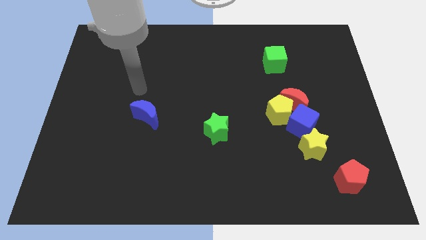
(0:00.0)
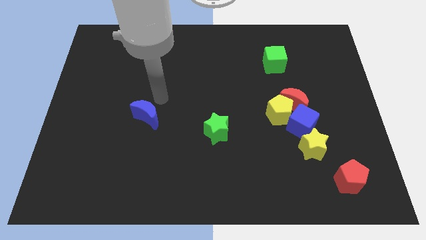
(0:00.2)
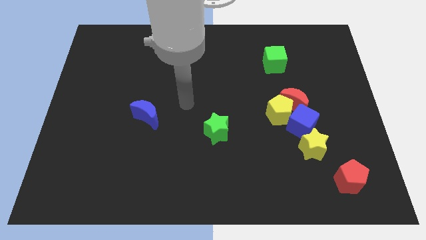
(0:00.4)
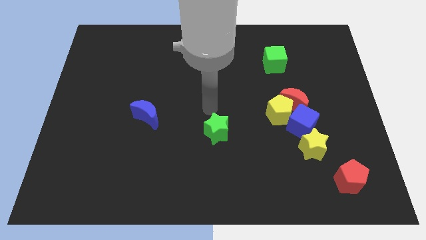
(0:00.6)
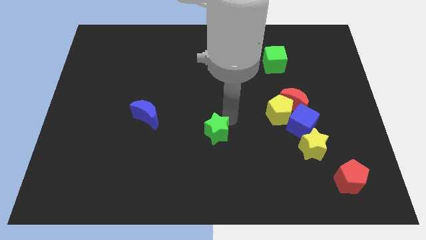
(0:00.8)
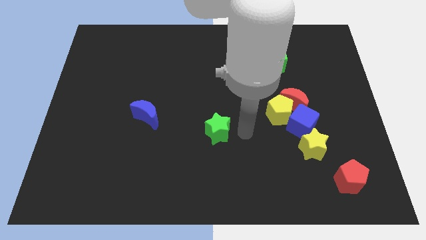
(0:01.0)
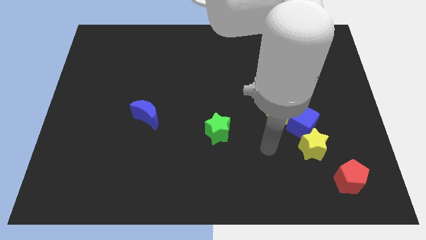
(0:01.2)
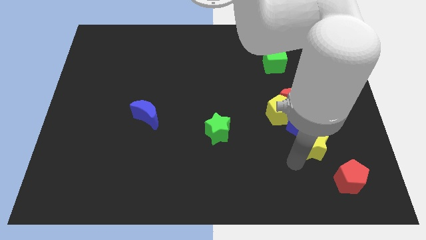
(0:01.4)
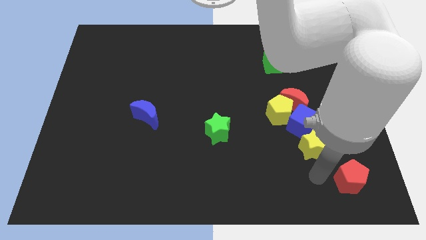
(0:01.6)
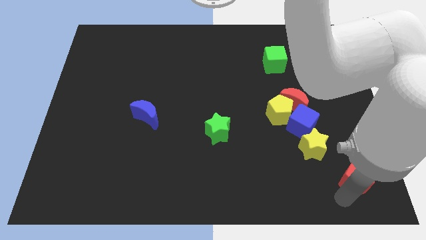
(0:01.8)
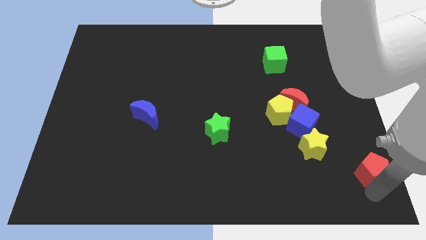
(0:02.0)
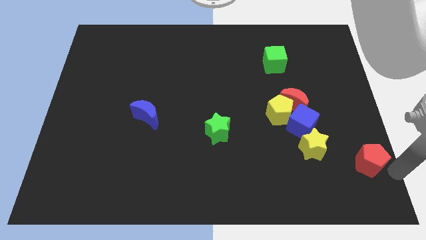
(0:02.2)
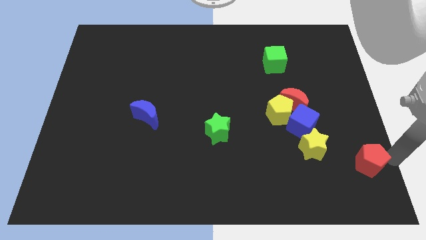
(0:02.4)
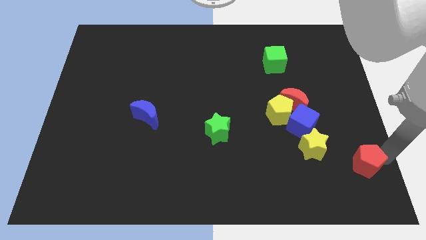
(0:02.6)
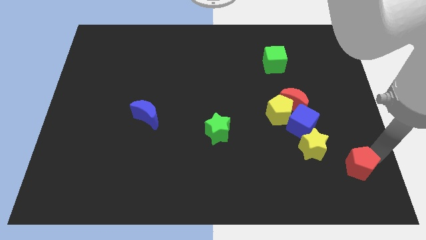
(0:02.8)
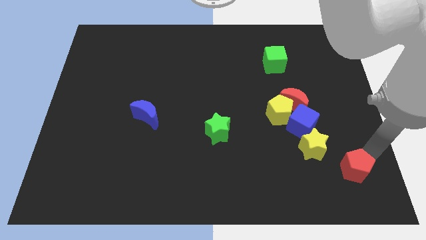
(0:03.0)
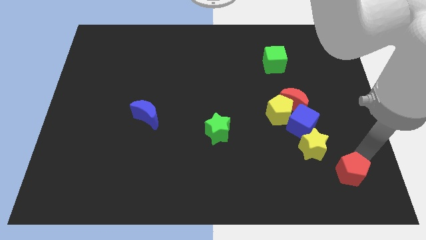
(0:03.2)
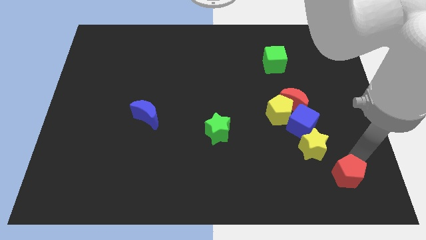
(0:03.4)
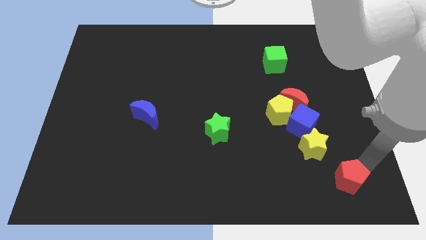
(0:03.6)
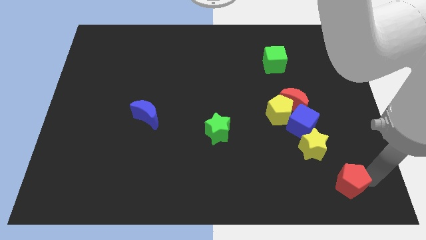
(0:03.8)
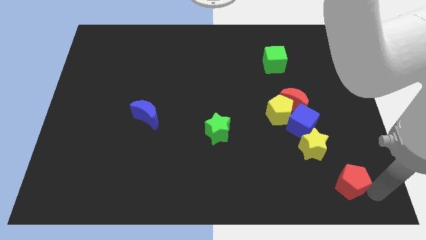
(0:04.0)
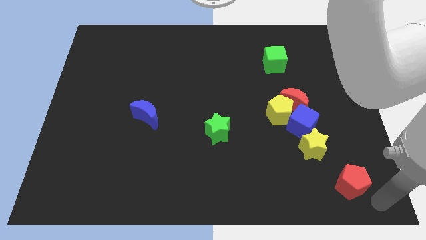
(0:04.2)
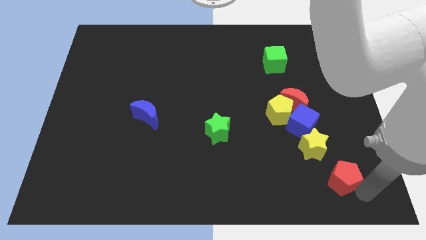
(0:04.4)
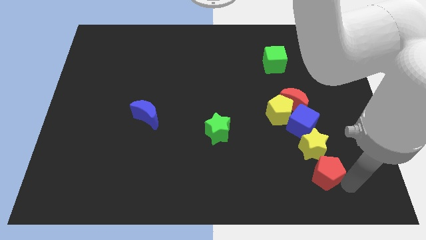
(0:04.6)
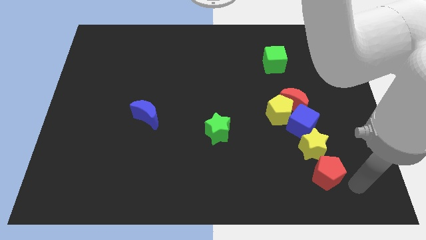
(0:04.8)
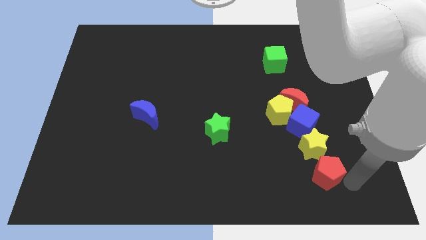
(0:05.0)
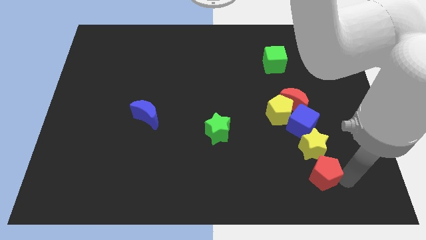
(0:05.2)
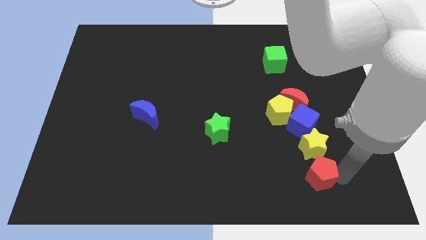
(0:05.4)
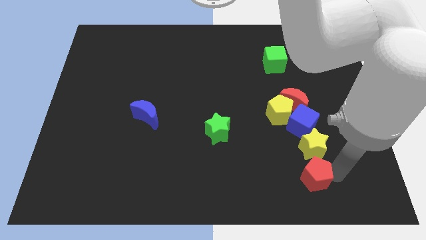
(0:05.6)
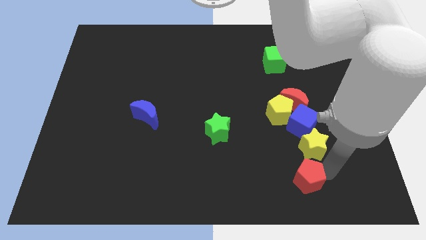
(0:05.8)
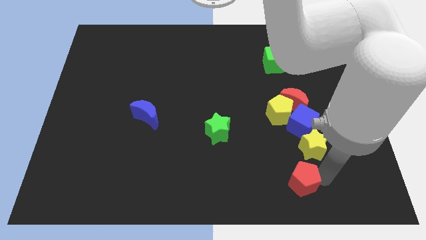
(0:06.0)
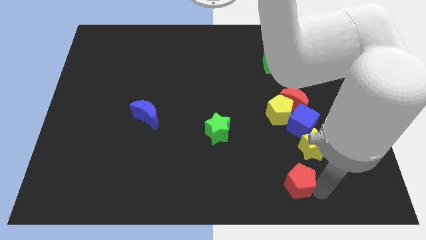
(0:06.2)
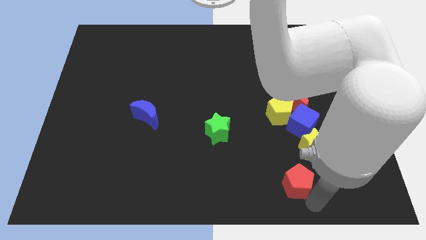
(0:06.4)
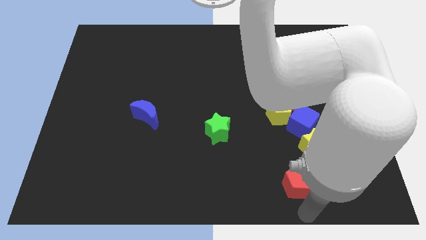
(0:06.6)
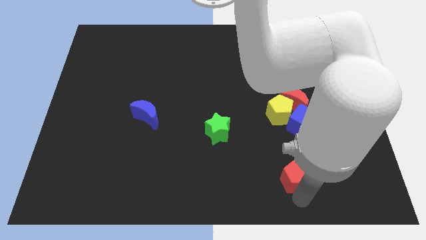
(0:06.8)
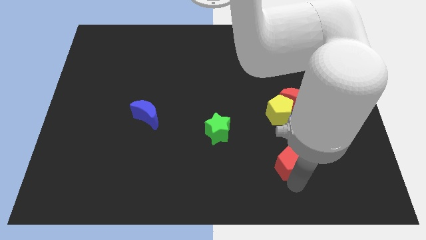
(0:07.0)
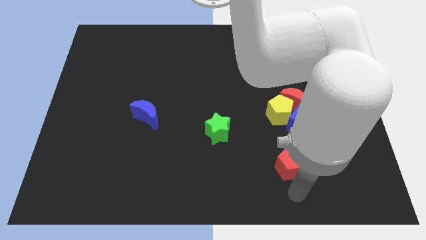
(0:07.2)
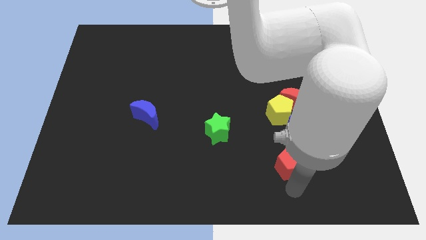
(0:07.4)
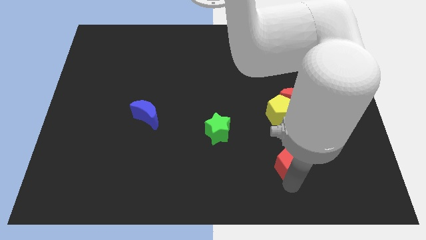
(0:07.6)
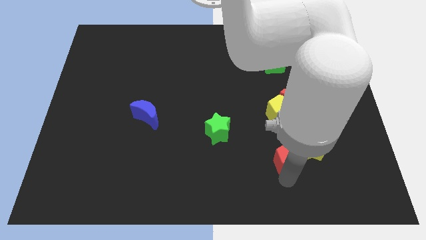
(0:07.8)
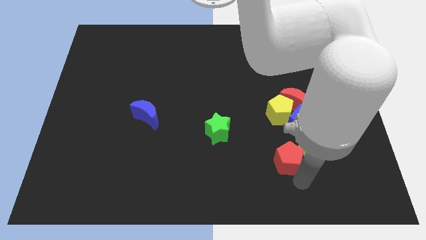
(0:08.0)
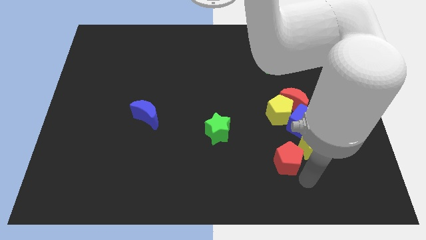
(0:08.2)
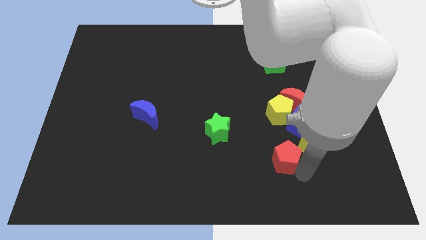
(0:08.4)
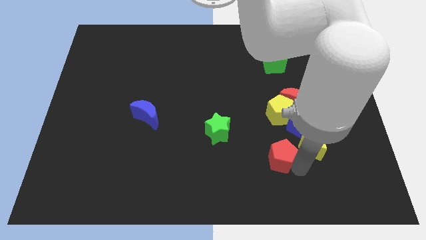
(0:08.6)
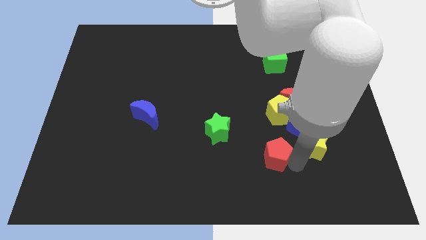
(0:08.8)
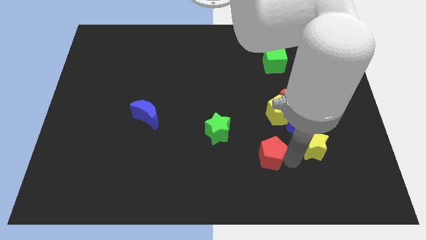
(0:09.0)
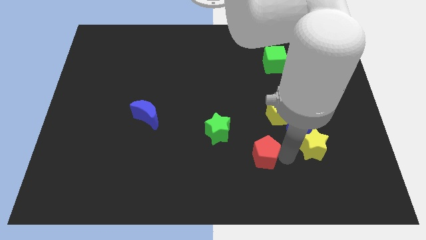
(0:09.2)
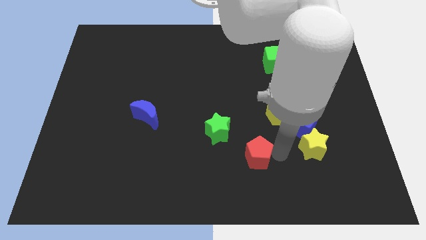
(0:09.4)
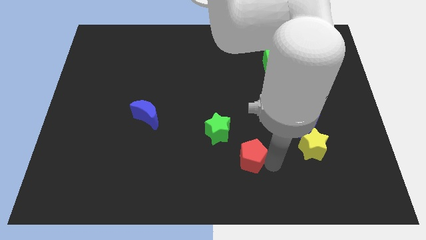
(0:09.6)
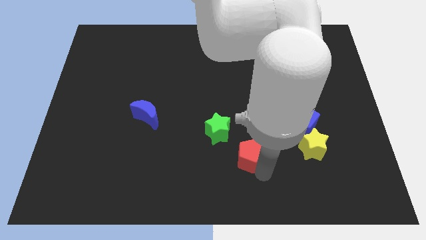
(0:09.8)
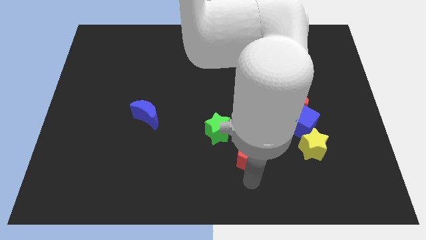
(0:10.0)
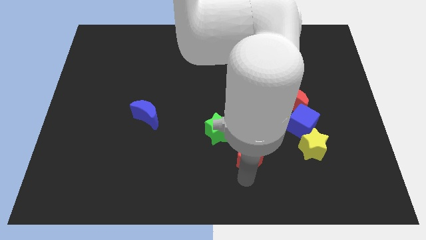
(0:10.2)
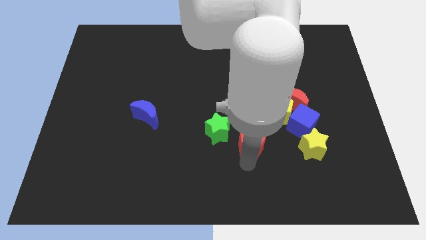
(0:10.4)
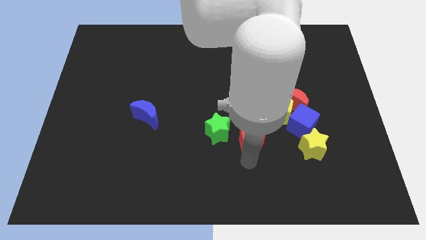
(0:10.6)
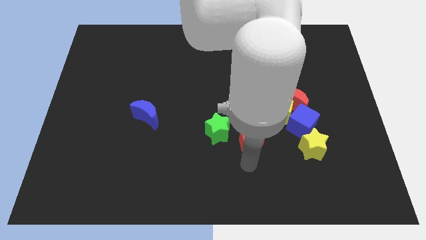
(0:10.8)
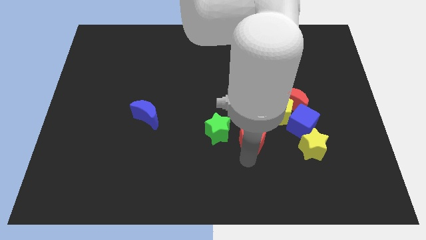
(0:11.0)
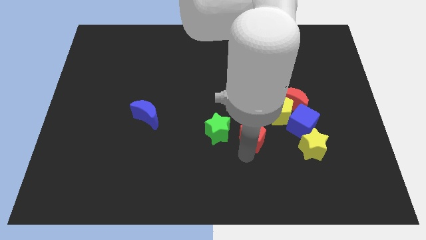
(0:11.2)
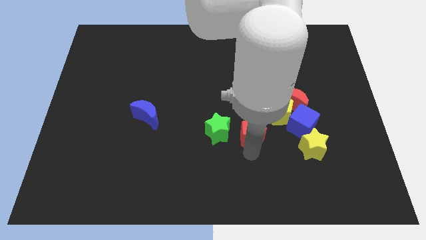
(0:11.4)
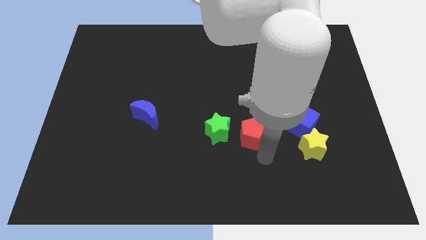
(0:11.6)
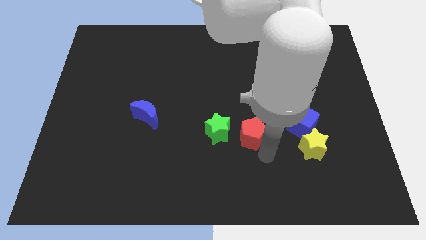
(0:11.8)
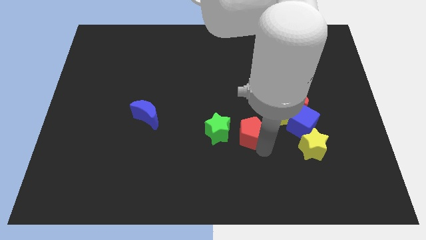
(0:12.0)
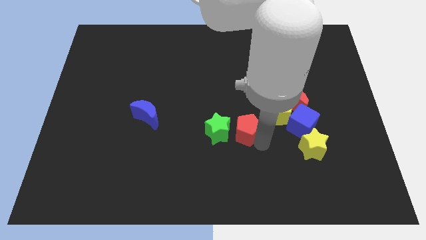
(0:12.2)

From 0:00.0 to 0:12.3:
push the red pentagon left of the yellow pentagon
